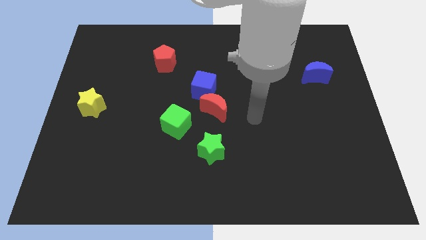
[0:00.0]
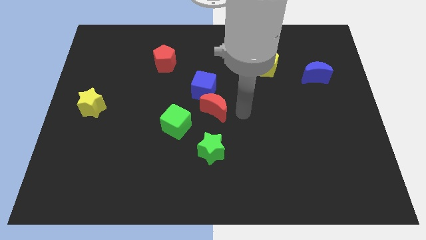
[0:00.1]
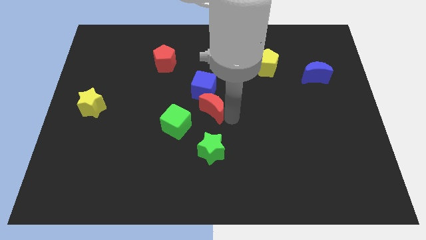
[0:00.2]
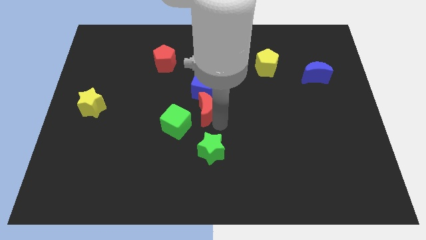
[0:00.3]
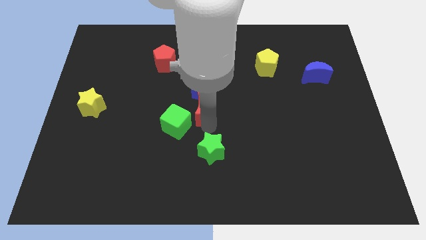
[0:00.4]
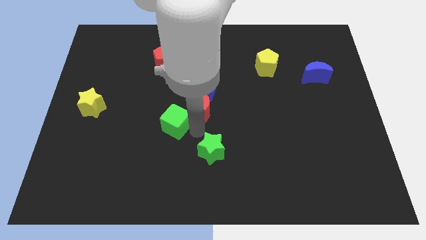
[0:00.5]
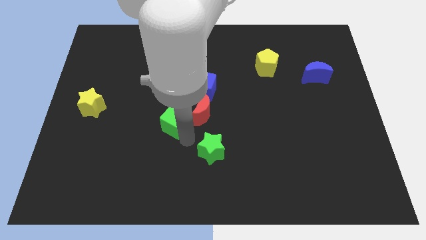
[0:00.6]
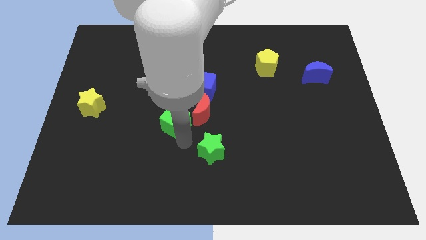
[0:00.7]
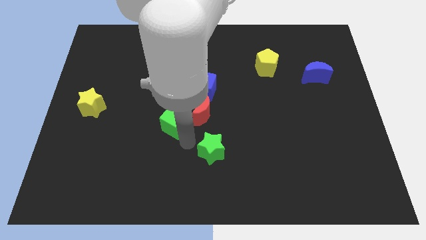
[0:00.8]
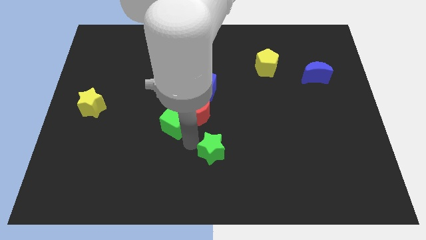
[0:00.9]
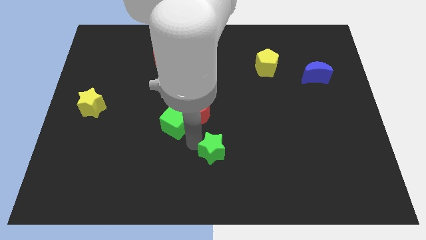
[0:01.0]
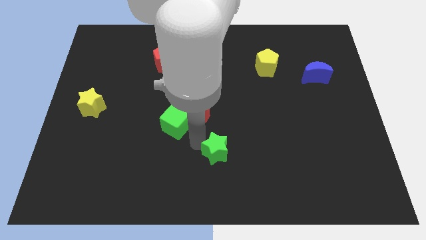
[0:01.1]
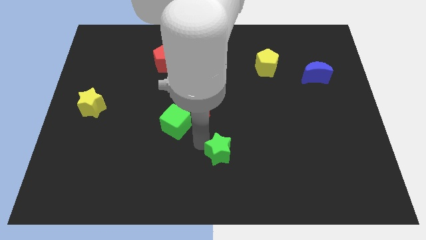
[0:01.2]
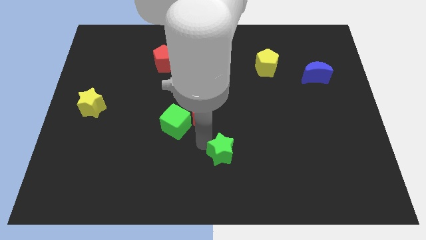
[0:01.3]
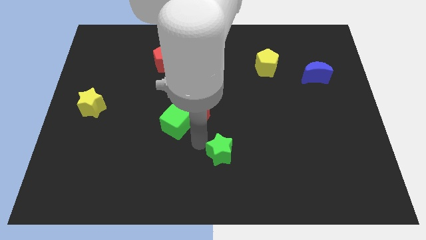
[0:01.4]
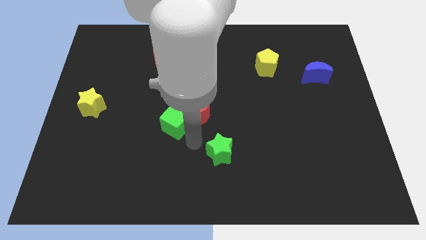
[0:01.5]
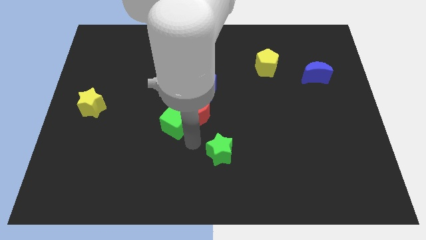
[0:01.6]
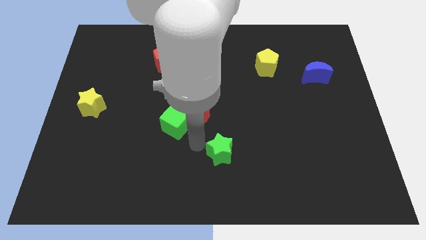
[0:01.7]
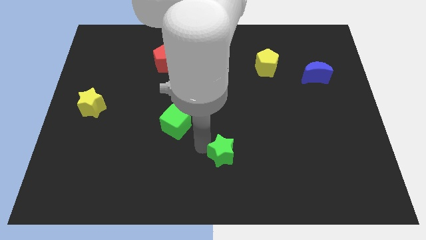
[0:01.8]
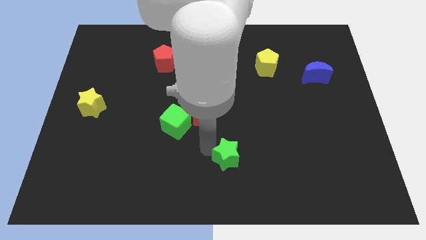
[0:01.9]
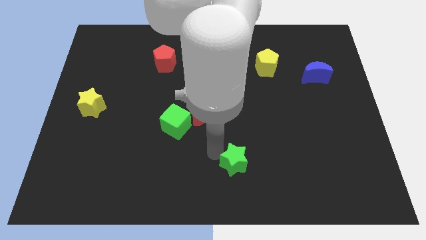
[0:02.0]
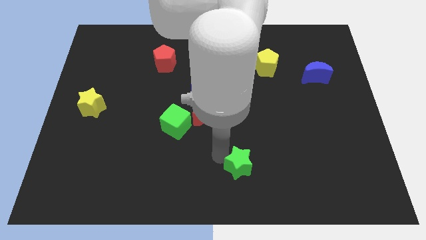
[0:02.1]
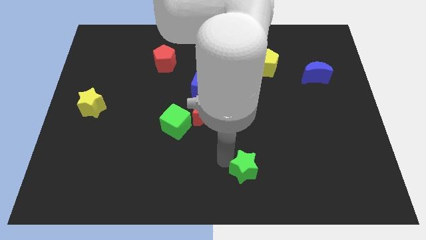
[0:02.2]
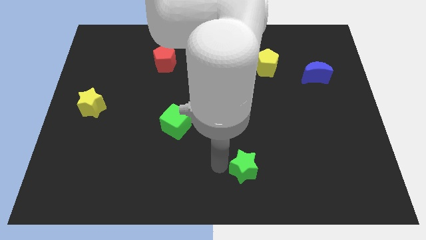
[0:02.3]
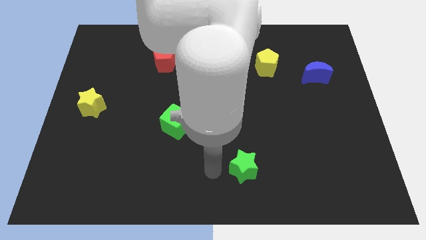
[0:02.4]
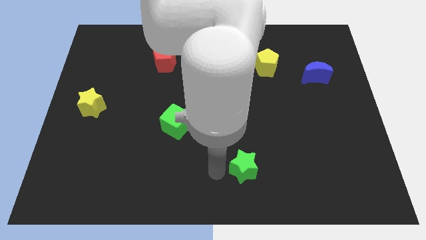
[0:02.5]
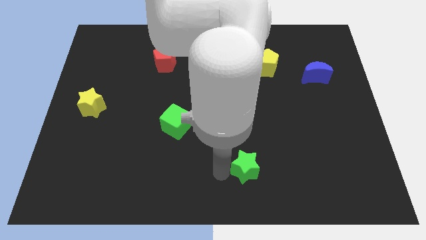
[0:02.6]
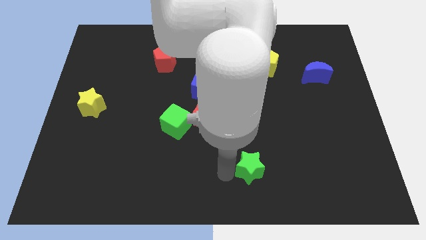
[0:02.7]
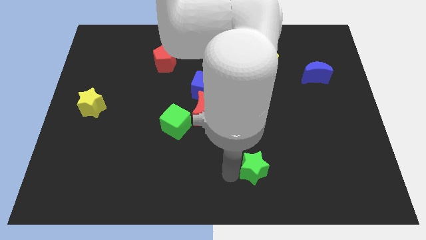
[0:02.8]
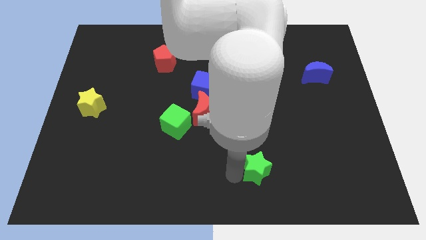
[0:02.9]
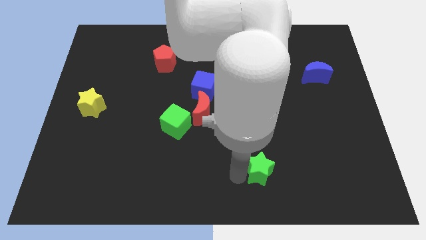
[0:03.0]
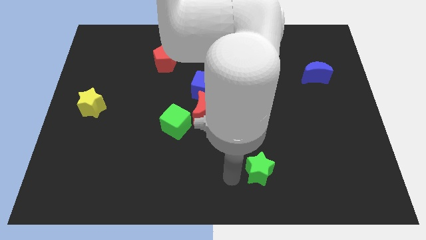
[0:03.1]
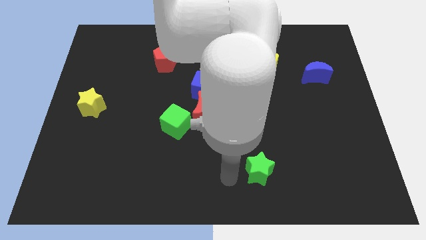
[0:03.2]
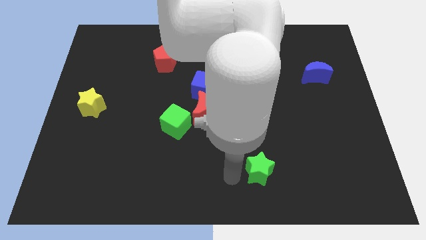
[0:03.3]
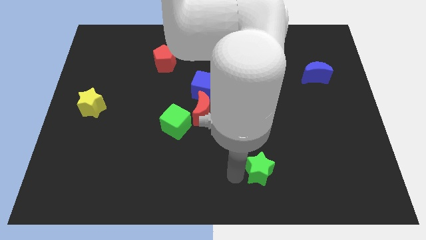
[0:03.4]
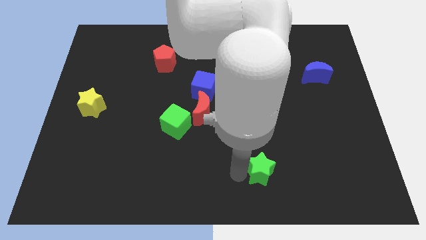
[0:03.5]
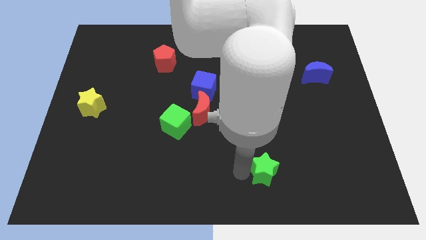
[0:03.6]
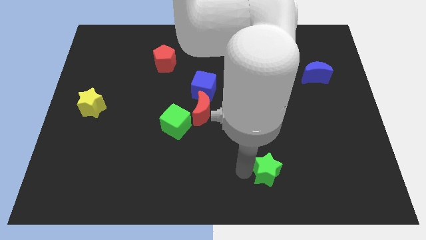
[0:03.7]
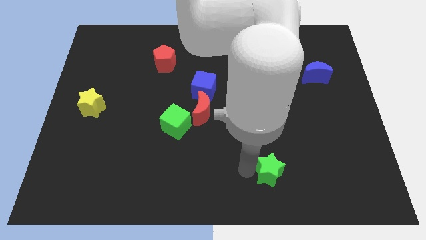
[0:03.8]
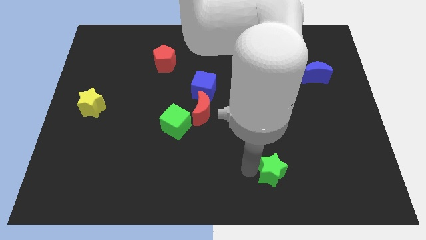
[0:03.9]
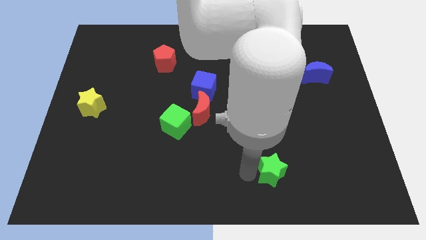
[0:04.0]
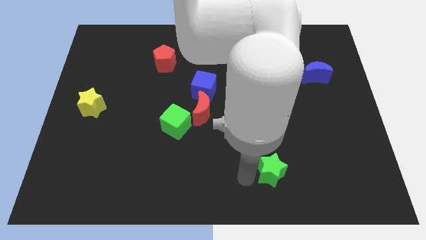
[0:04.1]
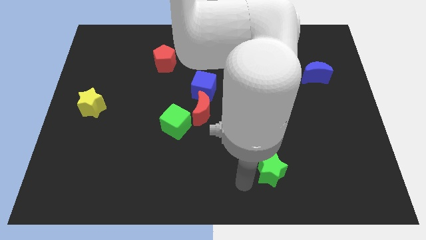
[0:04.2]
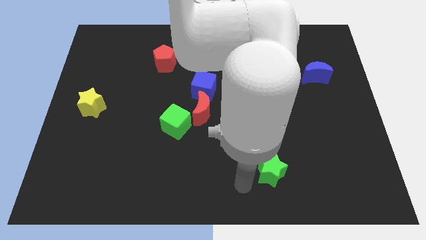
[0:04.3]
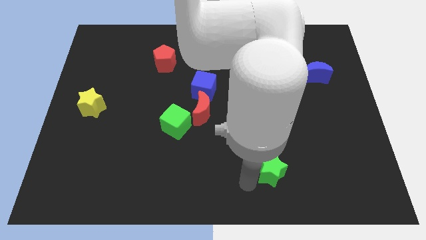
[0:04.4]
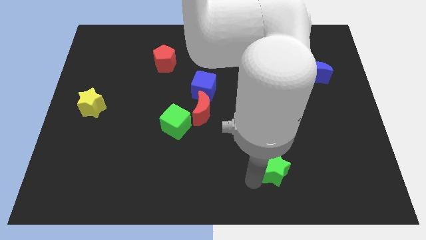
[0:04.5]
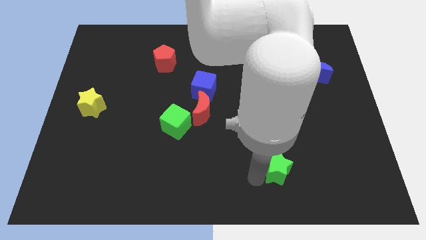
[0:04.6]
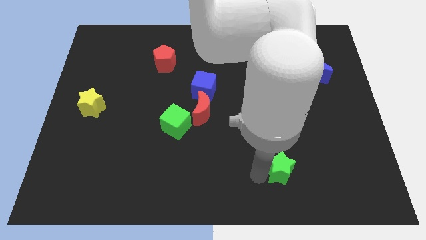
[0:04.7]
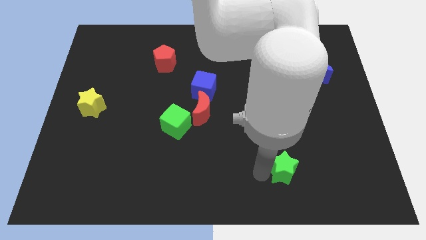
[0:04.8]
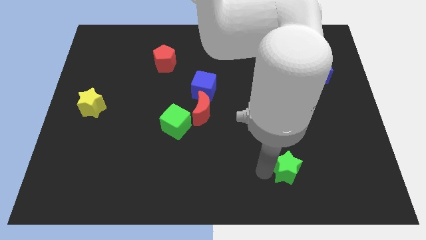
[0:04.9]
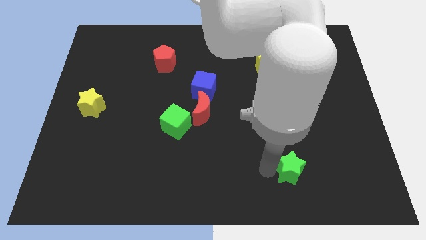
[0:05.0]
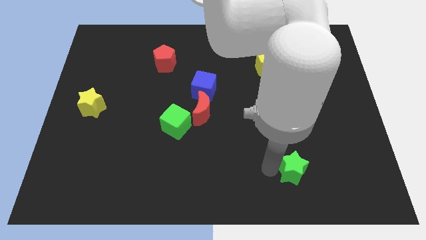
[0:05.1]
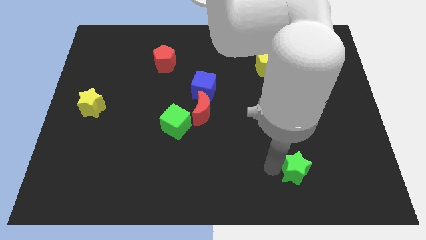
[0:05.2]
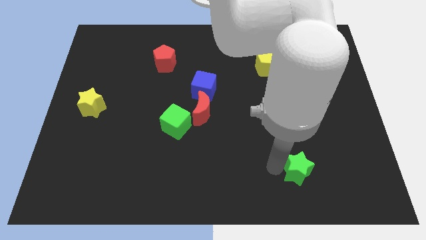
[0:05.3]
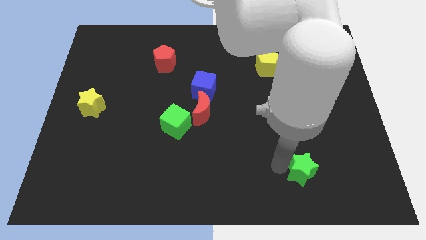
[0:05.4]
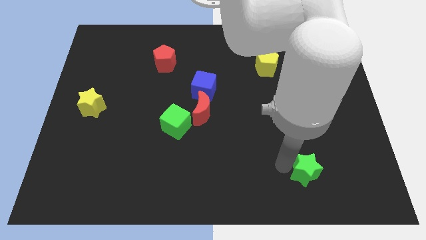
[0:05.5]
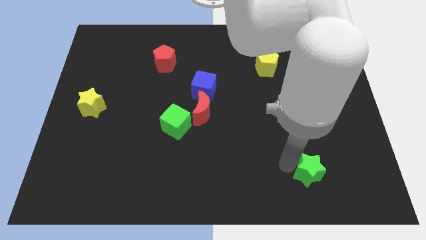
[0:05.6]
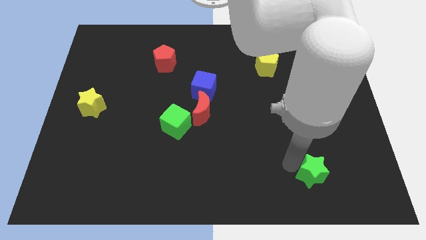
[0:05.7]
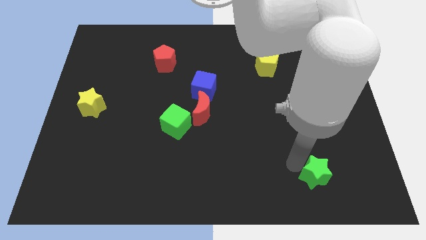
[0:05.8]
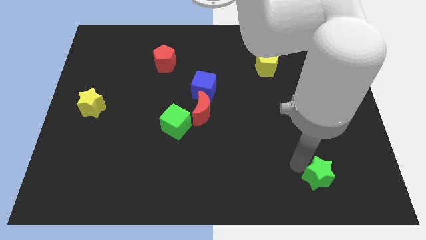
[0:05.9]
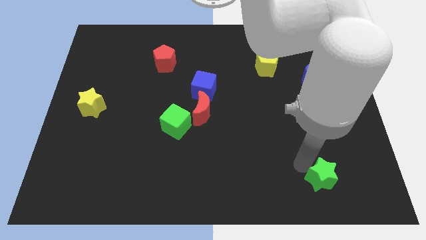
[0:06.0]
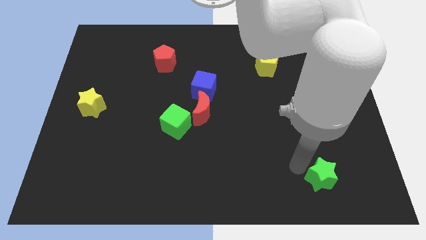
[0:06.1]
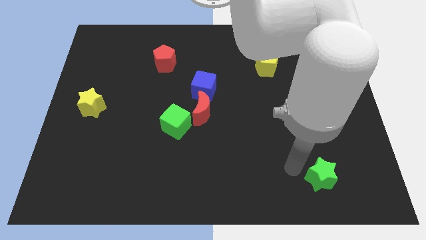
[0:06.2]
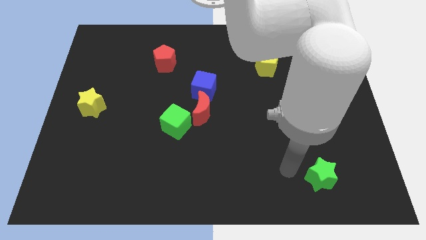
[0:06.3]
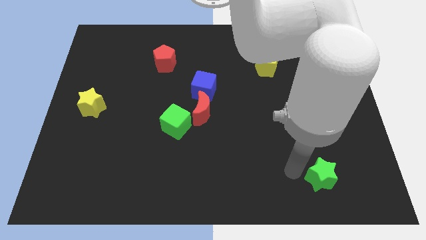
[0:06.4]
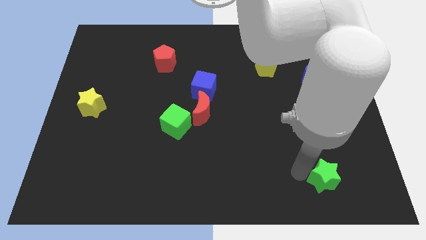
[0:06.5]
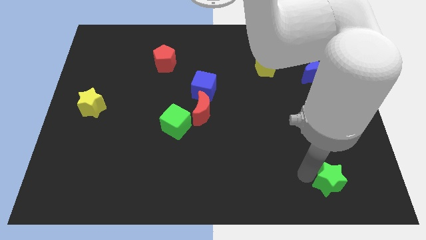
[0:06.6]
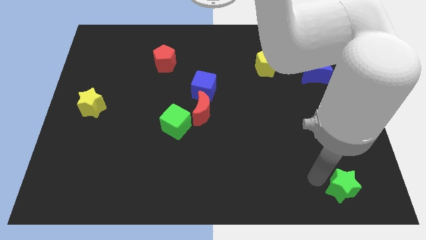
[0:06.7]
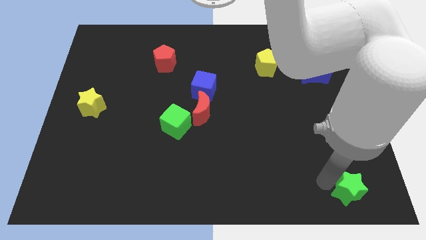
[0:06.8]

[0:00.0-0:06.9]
put the green star to the lower right corner
